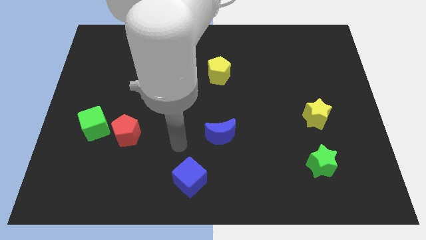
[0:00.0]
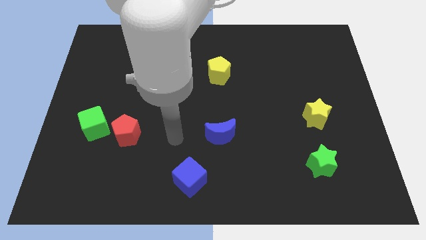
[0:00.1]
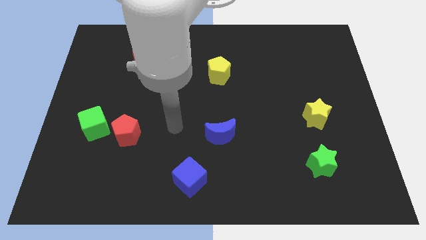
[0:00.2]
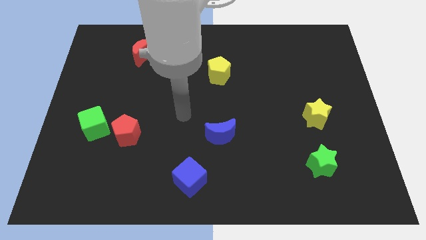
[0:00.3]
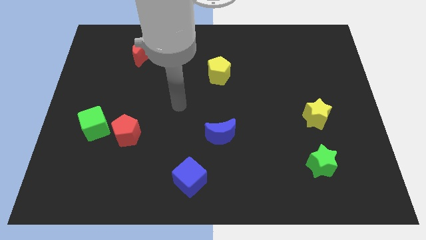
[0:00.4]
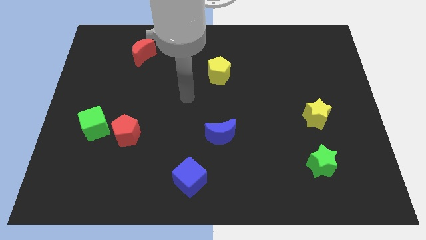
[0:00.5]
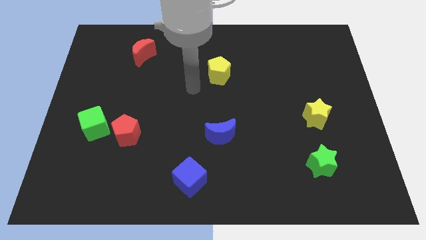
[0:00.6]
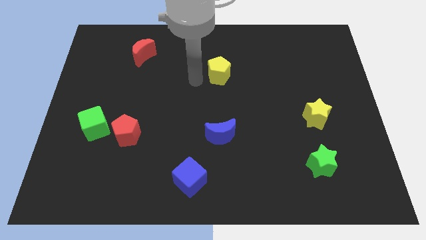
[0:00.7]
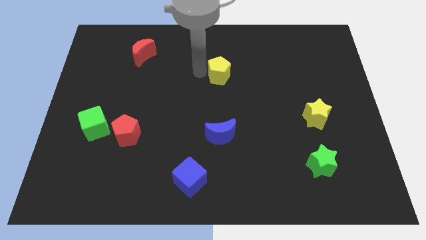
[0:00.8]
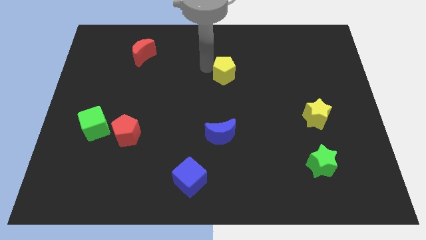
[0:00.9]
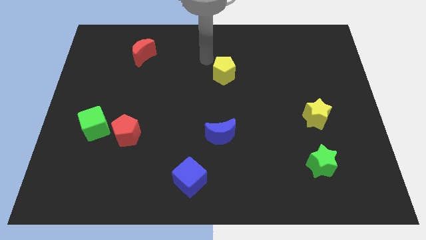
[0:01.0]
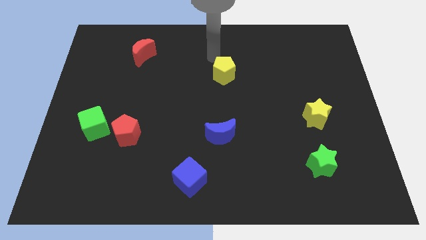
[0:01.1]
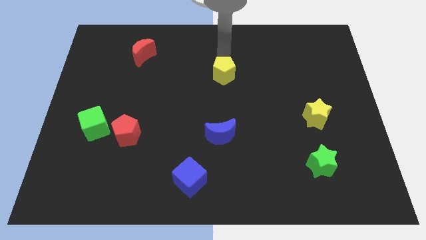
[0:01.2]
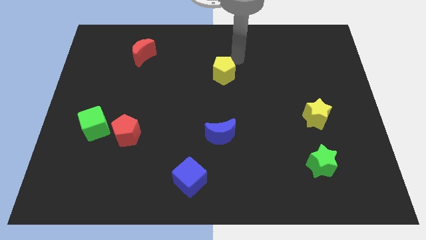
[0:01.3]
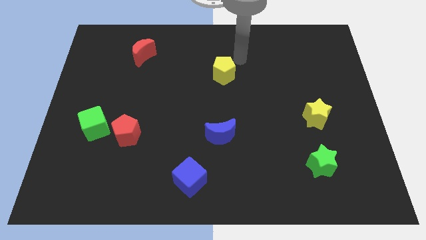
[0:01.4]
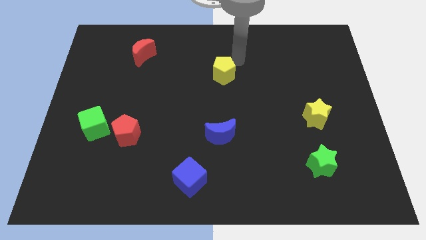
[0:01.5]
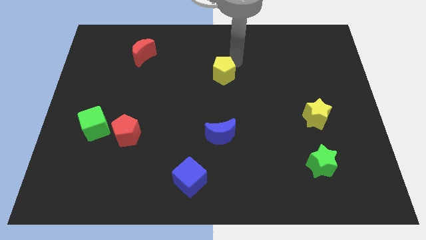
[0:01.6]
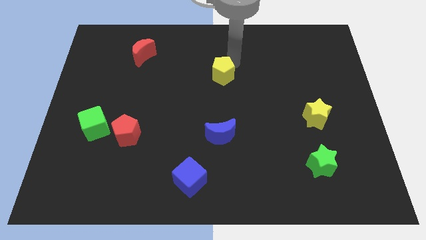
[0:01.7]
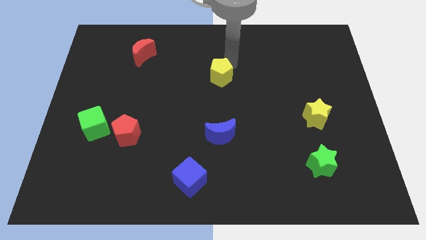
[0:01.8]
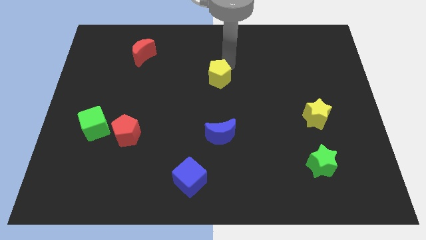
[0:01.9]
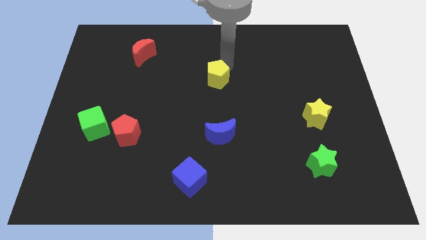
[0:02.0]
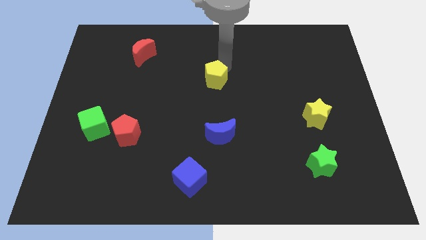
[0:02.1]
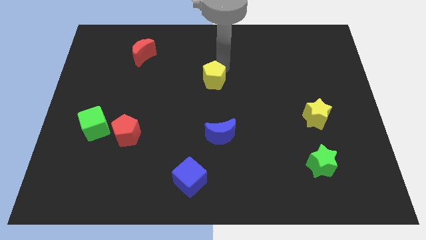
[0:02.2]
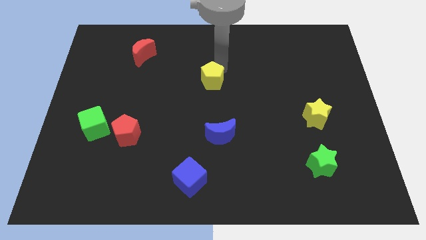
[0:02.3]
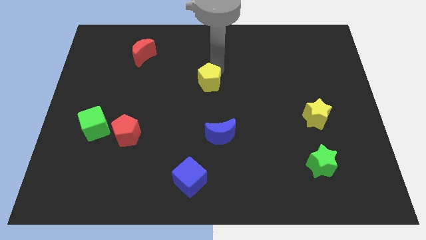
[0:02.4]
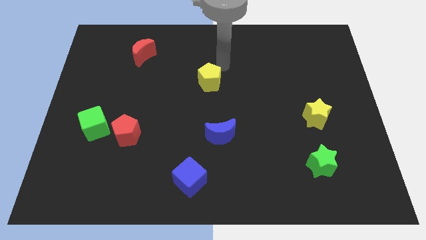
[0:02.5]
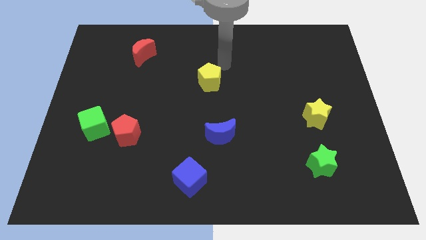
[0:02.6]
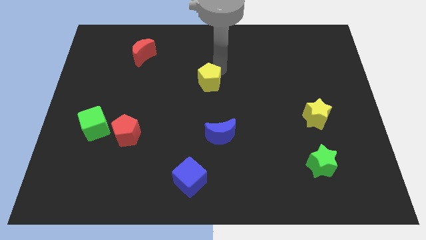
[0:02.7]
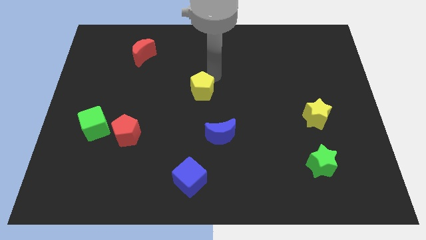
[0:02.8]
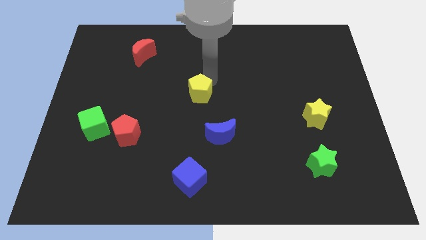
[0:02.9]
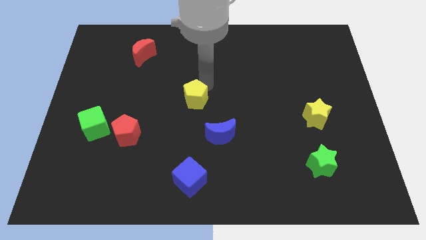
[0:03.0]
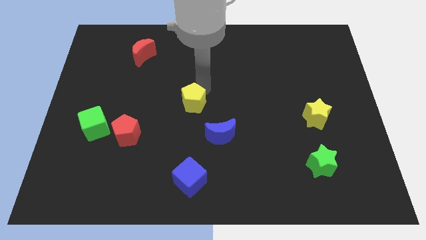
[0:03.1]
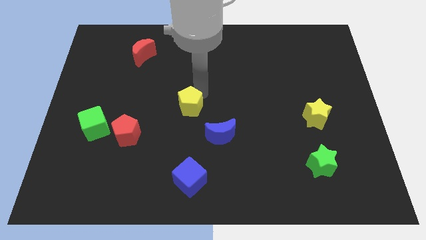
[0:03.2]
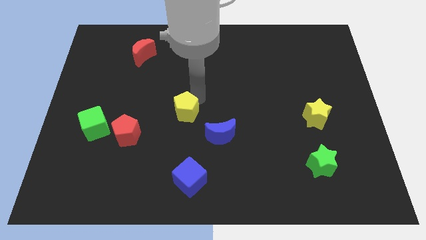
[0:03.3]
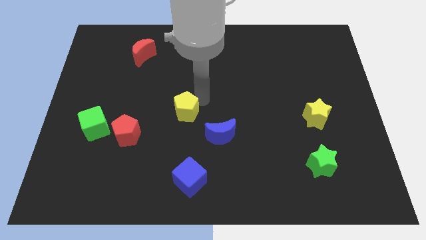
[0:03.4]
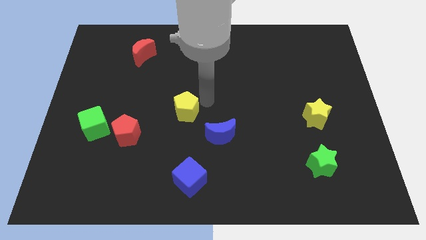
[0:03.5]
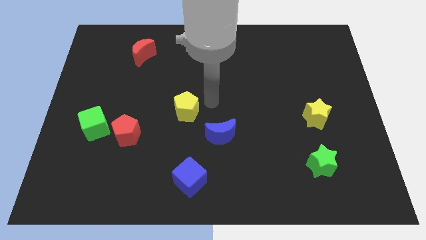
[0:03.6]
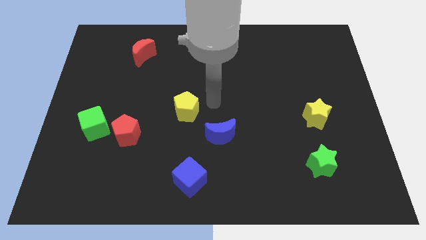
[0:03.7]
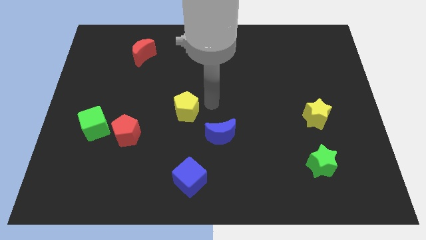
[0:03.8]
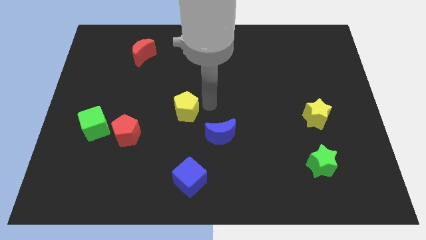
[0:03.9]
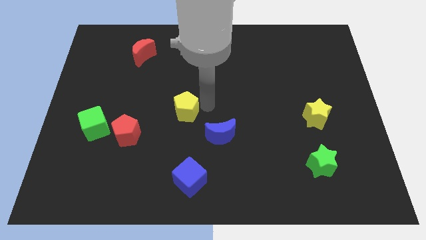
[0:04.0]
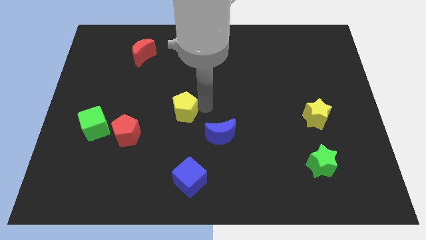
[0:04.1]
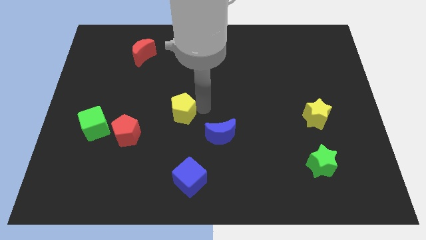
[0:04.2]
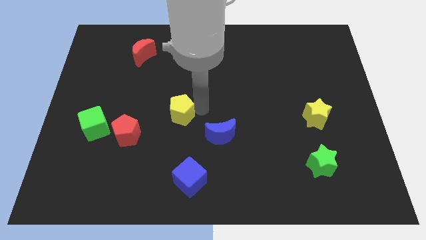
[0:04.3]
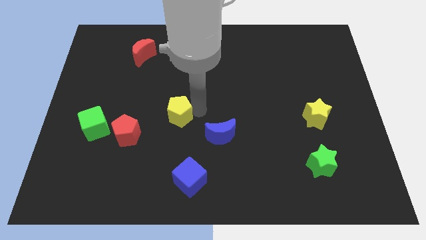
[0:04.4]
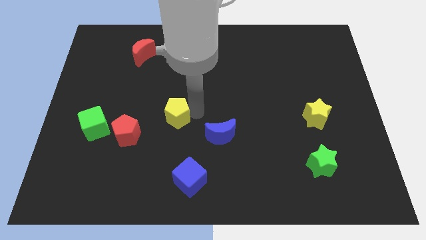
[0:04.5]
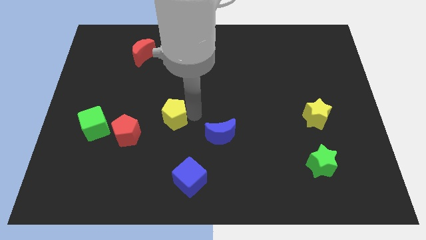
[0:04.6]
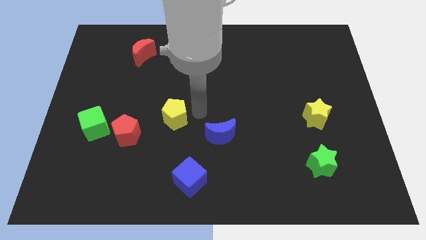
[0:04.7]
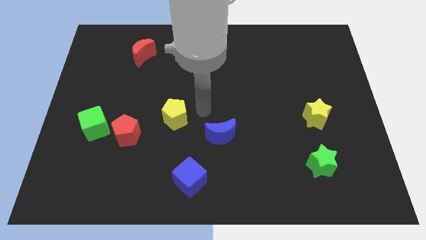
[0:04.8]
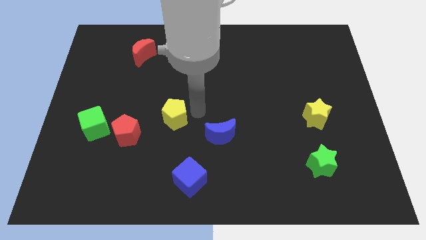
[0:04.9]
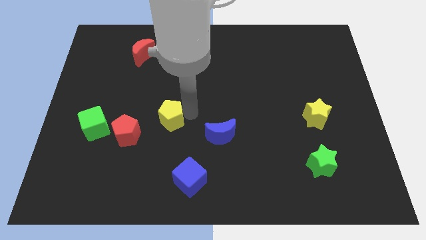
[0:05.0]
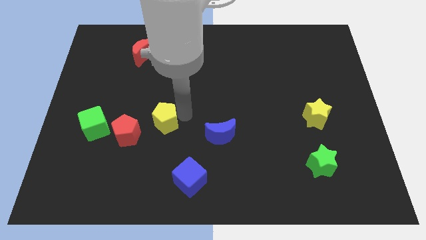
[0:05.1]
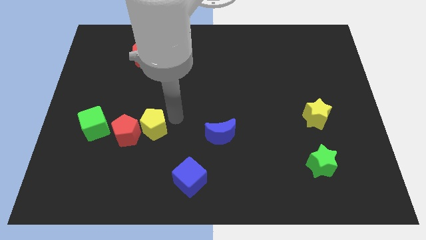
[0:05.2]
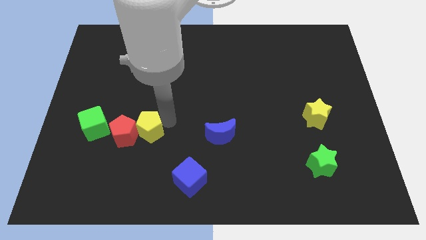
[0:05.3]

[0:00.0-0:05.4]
push the yellow pentagon to the red pentagon

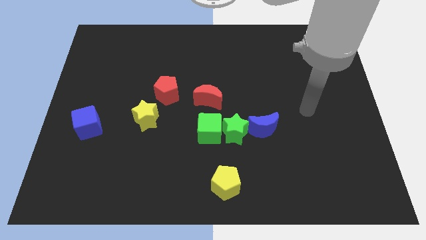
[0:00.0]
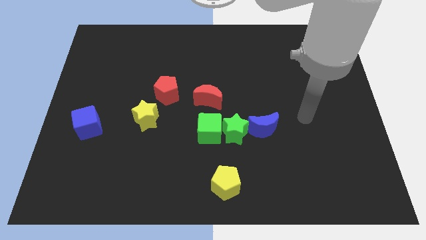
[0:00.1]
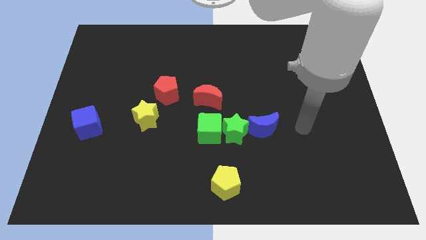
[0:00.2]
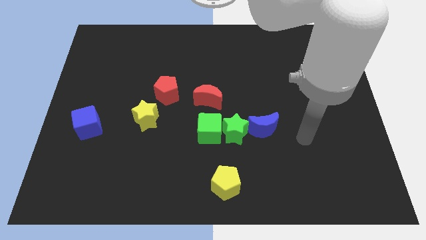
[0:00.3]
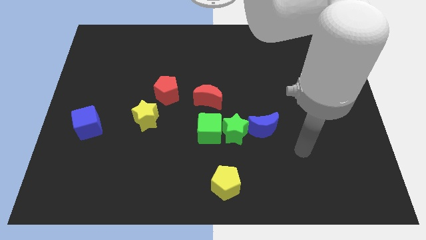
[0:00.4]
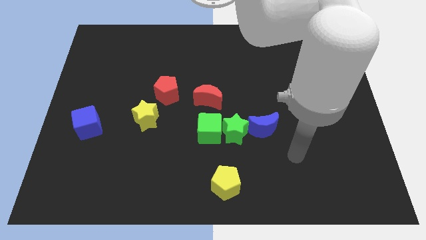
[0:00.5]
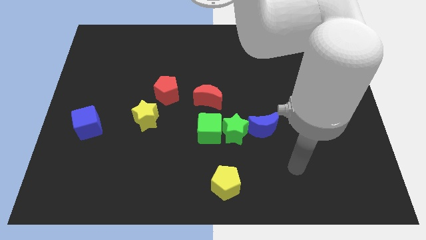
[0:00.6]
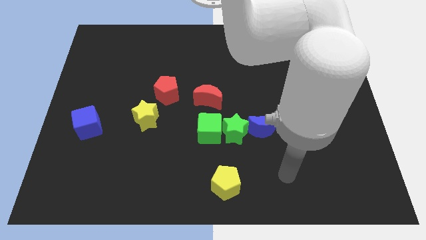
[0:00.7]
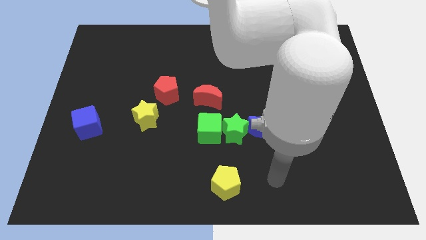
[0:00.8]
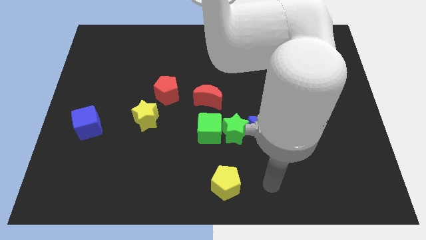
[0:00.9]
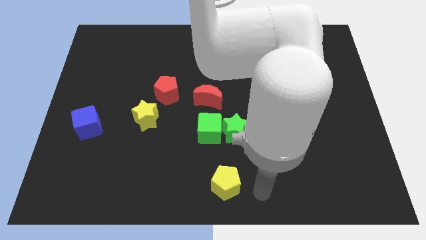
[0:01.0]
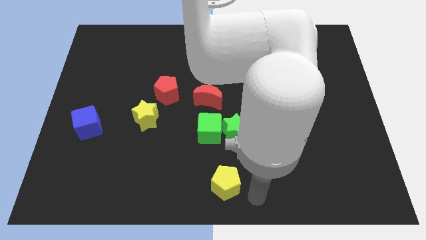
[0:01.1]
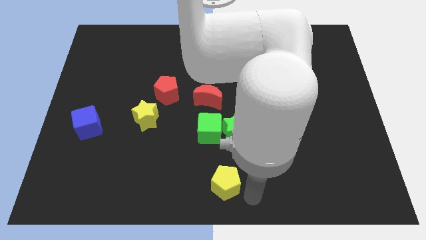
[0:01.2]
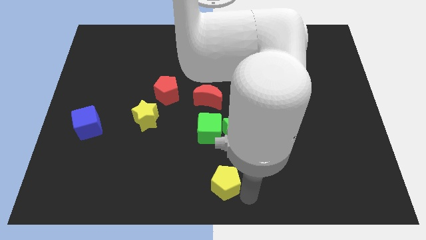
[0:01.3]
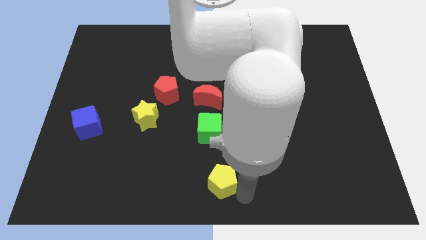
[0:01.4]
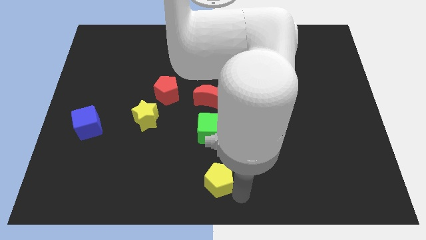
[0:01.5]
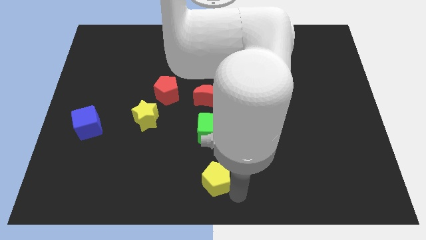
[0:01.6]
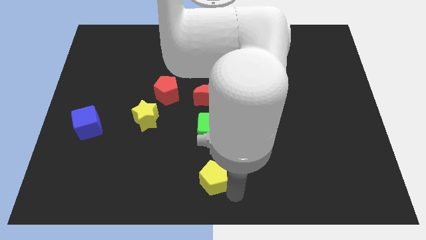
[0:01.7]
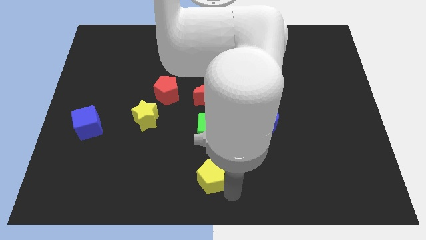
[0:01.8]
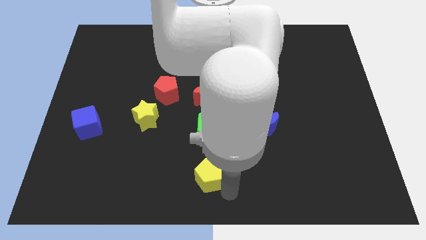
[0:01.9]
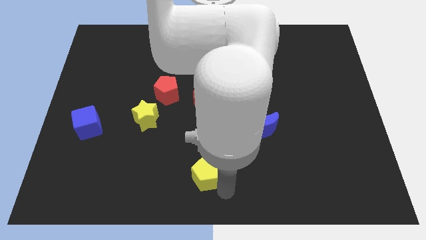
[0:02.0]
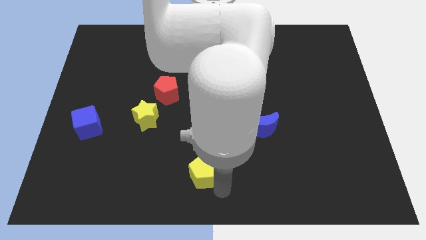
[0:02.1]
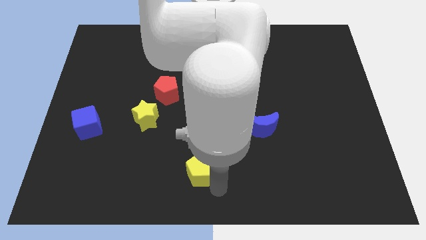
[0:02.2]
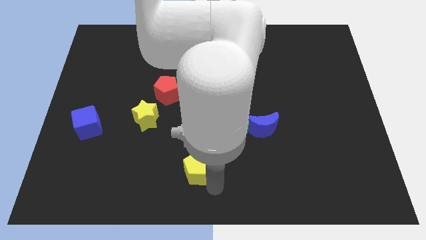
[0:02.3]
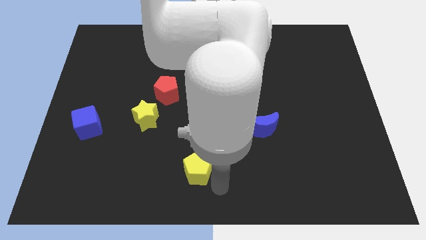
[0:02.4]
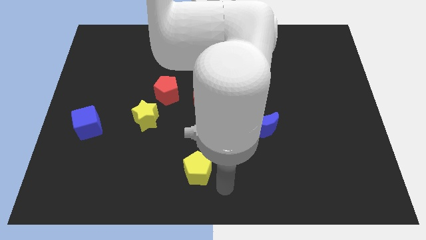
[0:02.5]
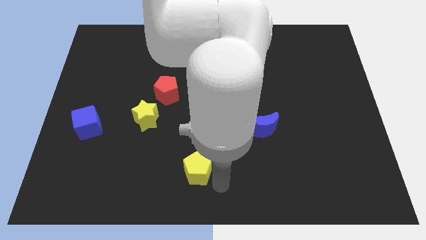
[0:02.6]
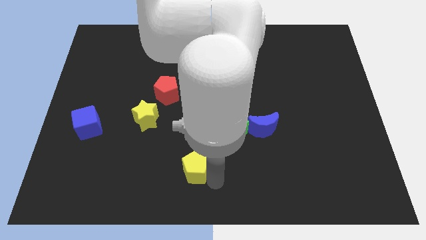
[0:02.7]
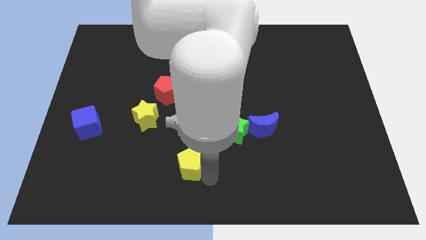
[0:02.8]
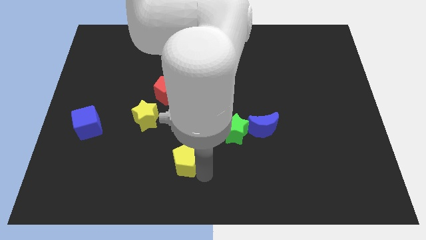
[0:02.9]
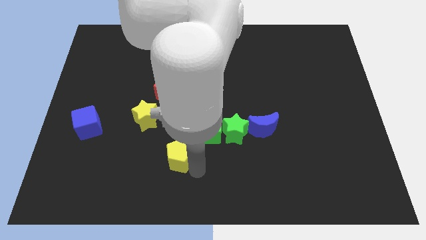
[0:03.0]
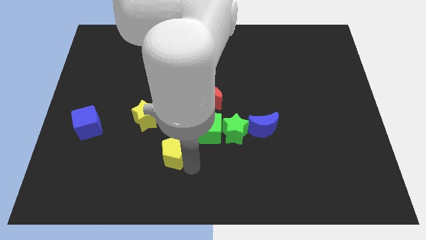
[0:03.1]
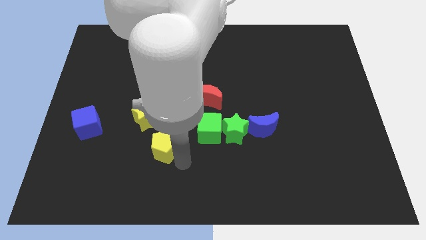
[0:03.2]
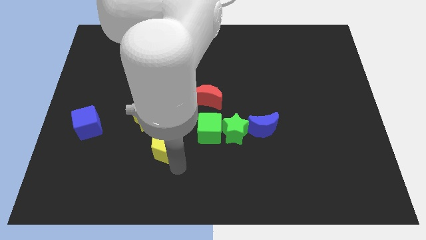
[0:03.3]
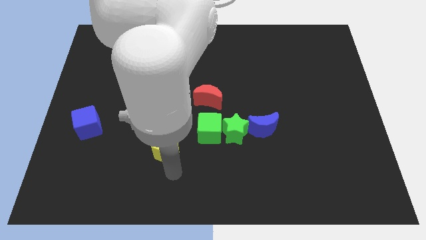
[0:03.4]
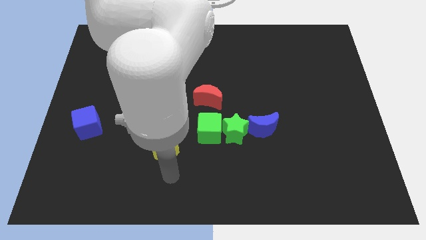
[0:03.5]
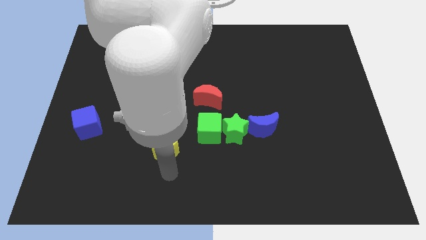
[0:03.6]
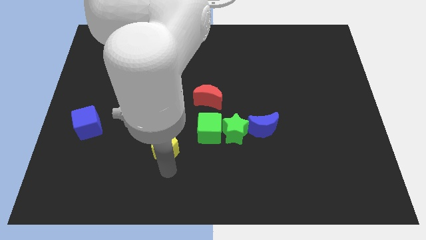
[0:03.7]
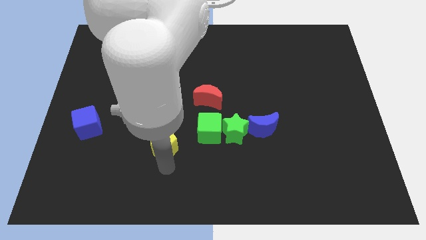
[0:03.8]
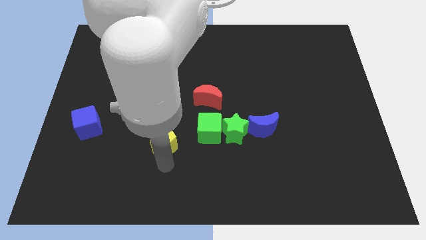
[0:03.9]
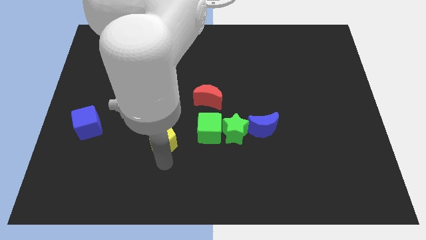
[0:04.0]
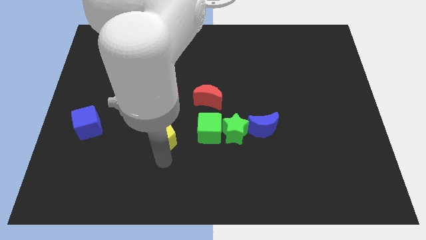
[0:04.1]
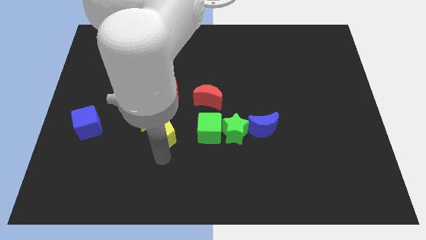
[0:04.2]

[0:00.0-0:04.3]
slide the yellow pentagon towards the yellow star
